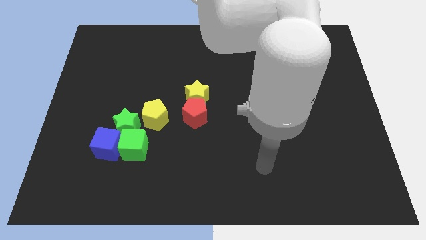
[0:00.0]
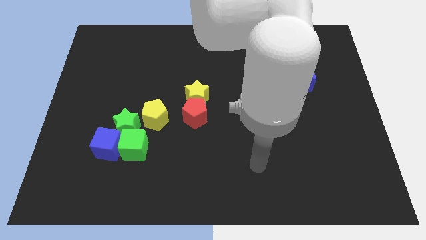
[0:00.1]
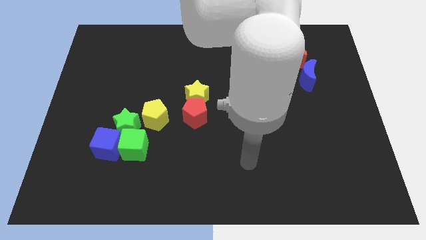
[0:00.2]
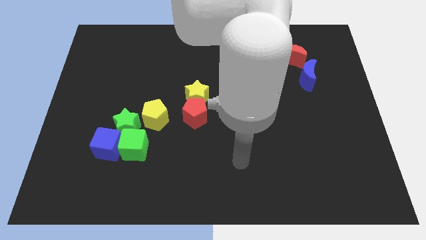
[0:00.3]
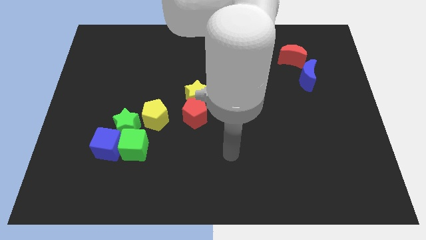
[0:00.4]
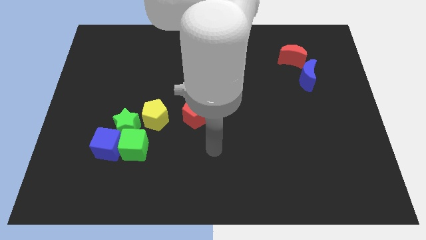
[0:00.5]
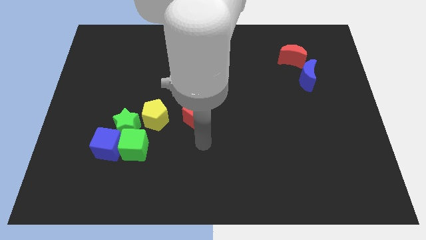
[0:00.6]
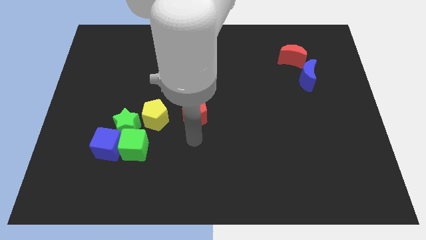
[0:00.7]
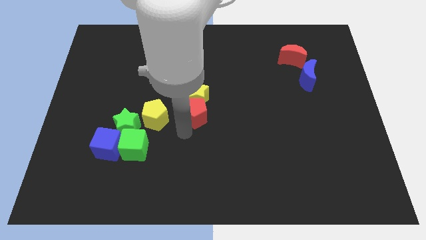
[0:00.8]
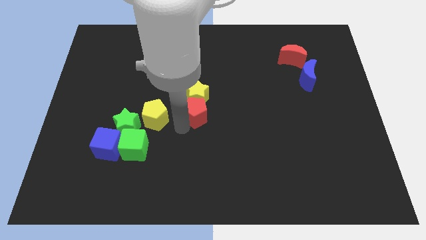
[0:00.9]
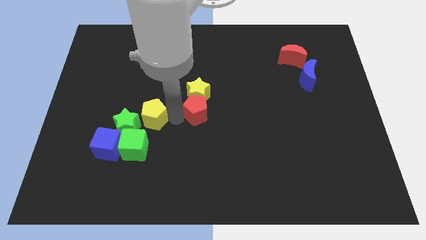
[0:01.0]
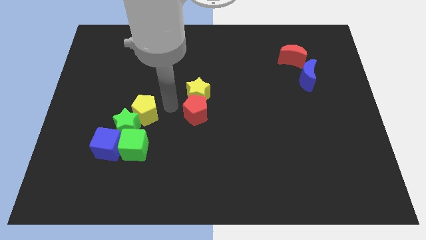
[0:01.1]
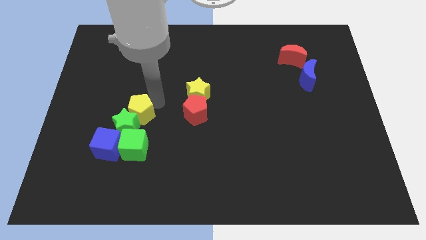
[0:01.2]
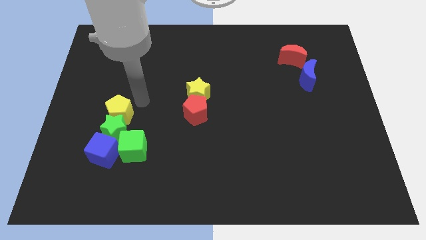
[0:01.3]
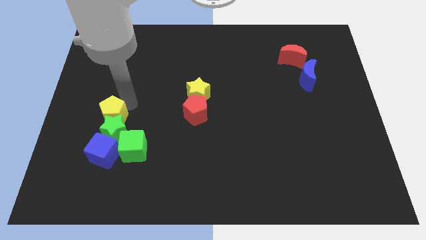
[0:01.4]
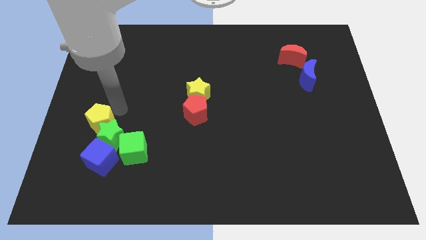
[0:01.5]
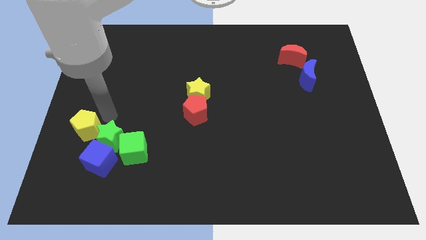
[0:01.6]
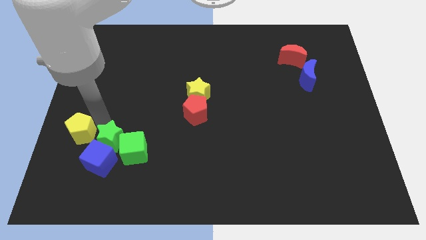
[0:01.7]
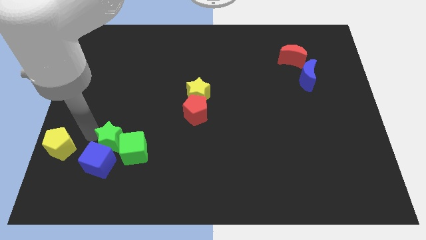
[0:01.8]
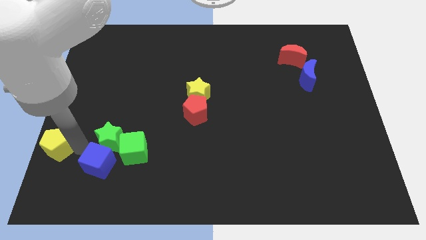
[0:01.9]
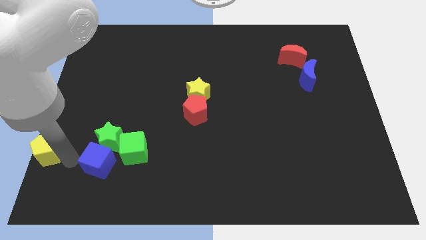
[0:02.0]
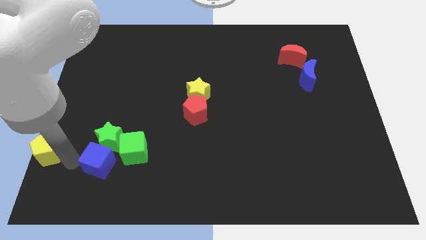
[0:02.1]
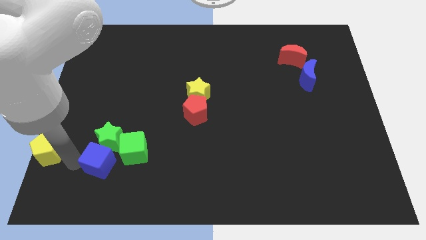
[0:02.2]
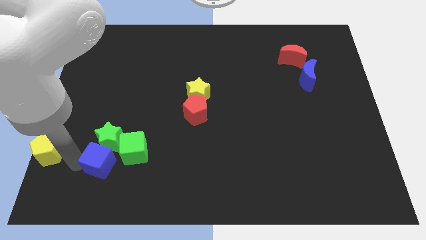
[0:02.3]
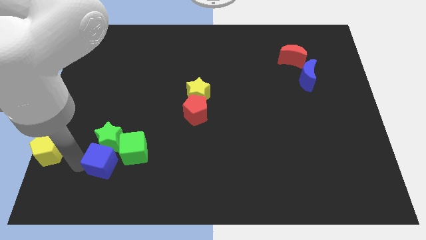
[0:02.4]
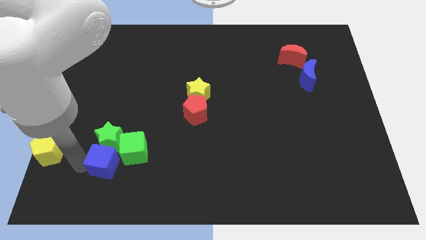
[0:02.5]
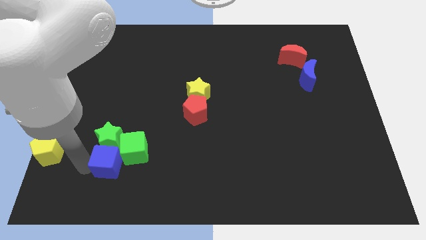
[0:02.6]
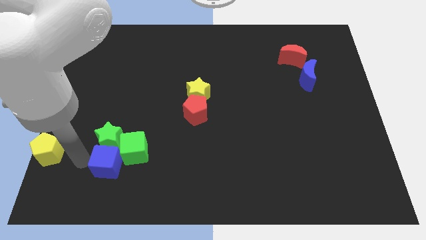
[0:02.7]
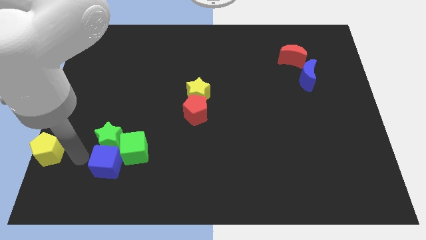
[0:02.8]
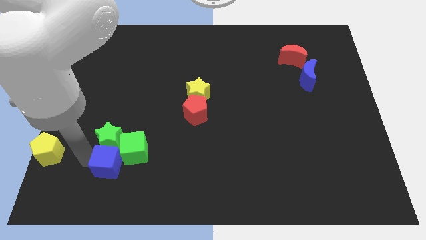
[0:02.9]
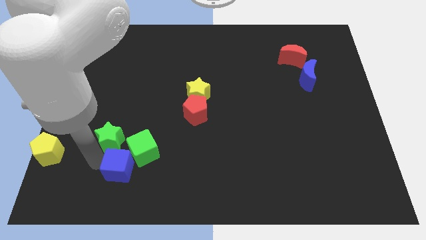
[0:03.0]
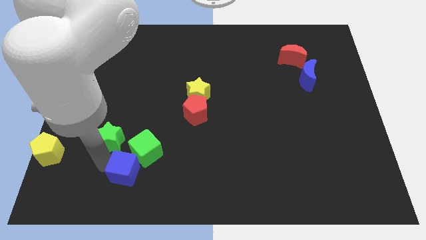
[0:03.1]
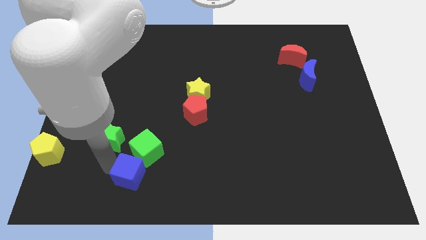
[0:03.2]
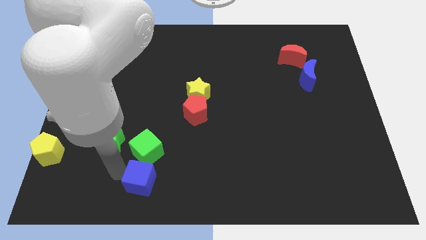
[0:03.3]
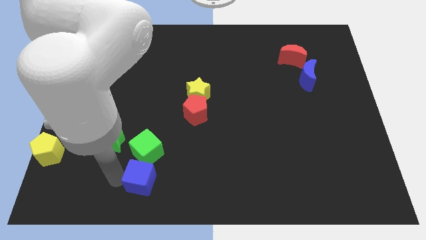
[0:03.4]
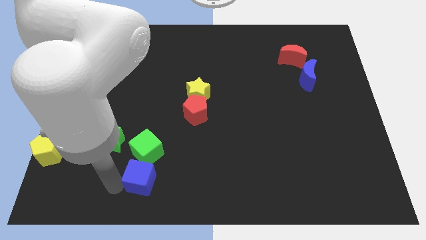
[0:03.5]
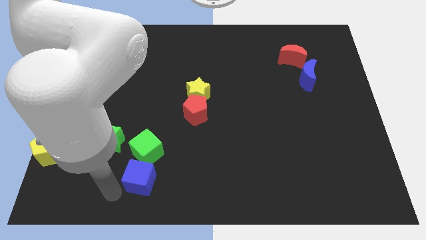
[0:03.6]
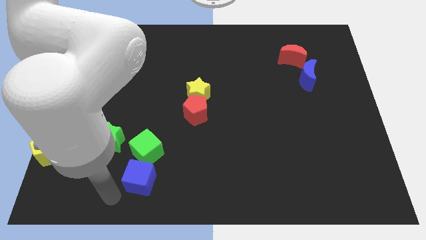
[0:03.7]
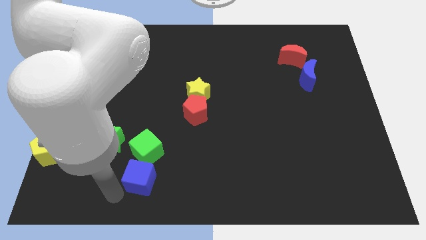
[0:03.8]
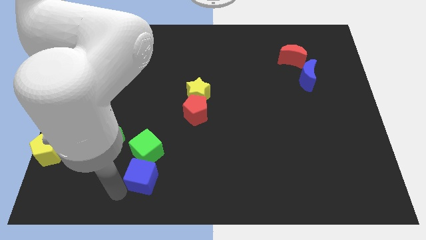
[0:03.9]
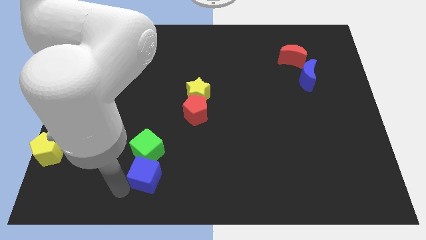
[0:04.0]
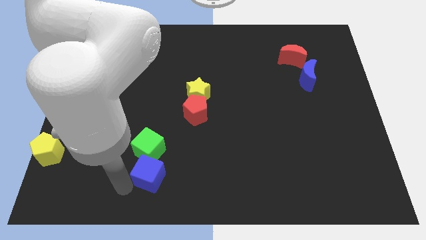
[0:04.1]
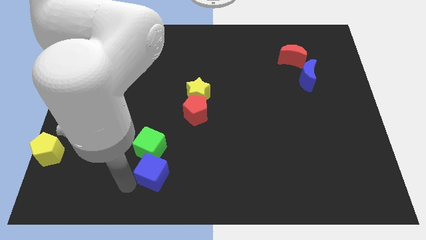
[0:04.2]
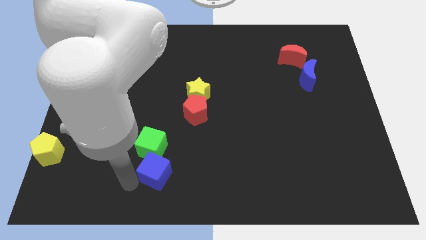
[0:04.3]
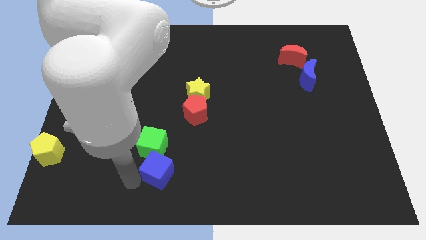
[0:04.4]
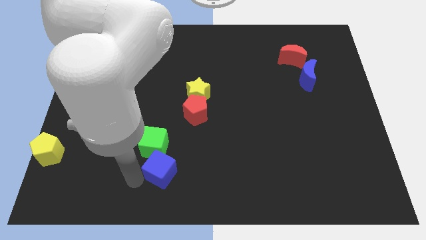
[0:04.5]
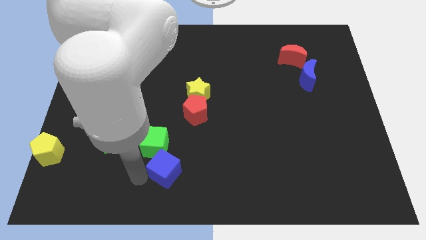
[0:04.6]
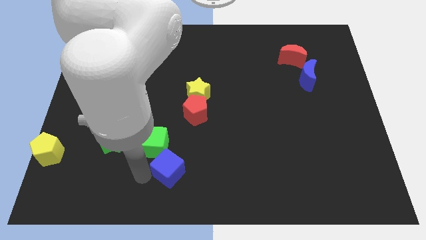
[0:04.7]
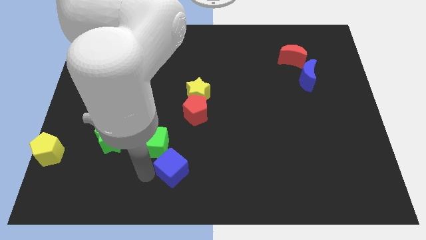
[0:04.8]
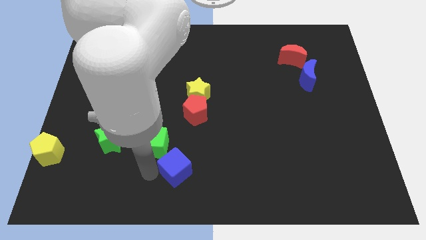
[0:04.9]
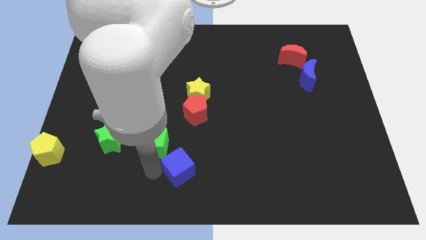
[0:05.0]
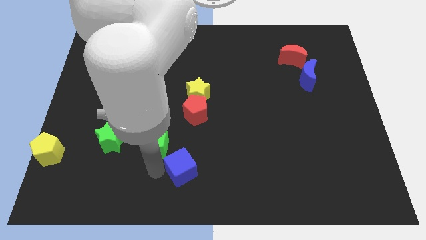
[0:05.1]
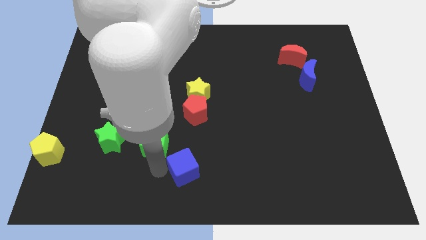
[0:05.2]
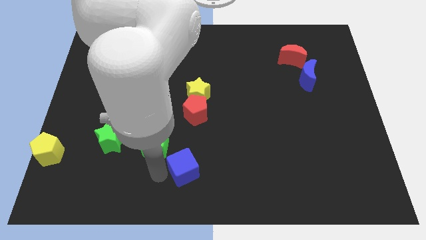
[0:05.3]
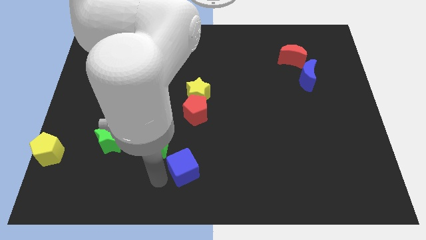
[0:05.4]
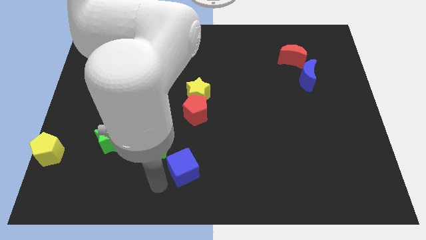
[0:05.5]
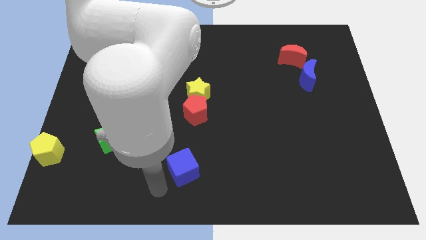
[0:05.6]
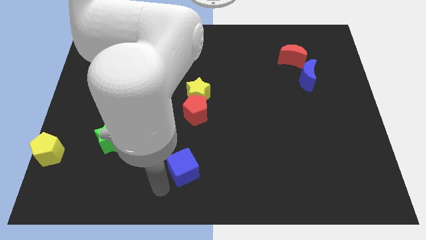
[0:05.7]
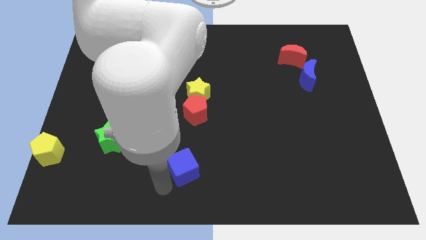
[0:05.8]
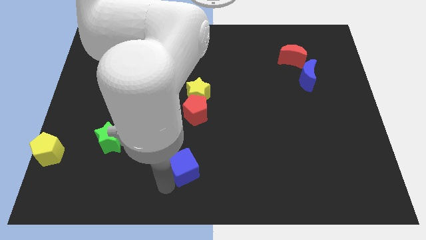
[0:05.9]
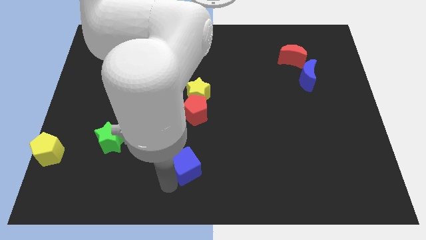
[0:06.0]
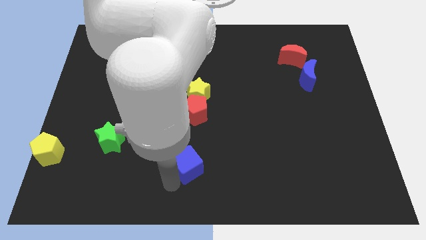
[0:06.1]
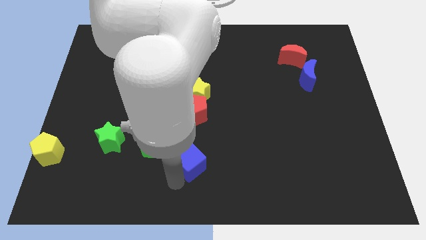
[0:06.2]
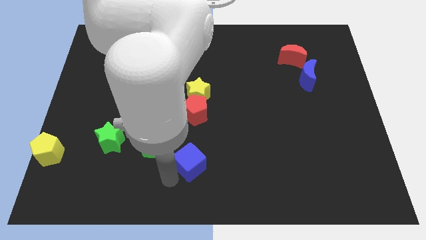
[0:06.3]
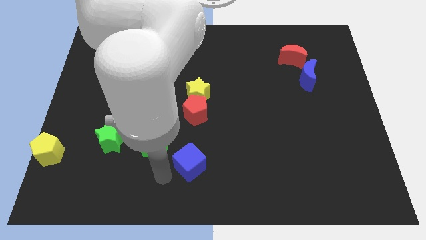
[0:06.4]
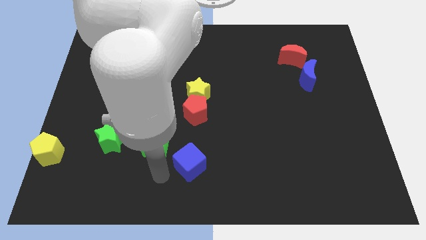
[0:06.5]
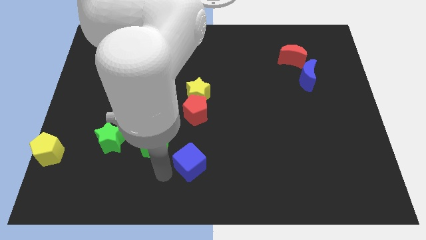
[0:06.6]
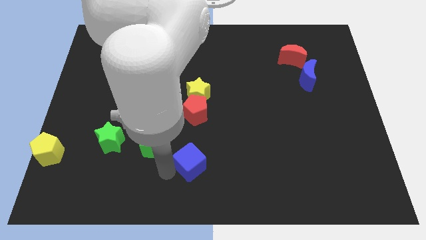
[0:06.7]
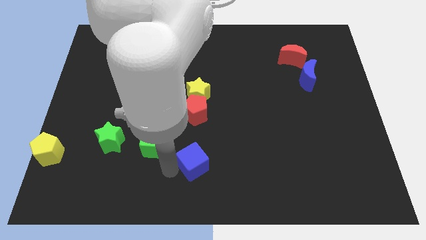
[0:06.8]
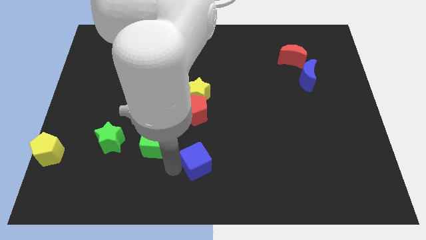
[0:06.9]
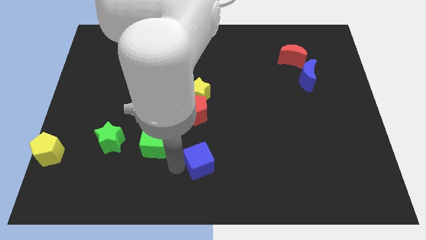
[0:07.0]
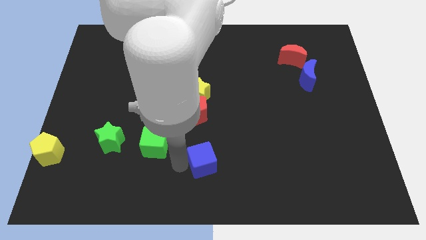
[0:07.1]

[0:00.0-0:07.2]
slide the blue cube right

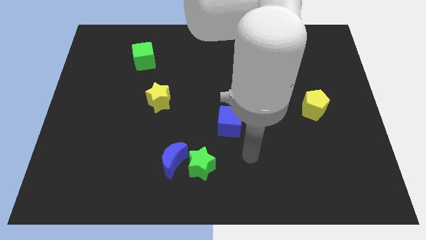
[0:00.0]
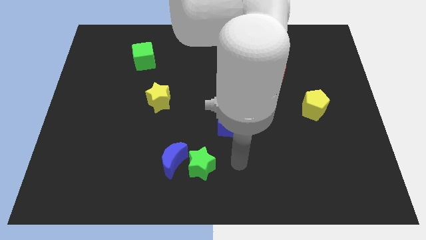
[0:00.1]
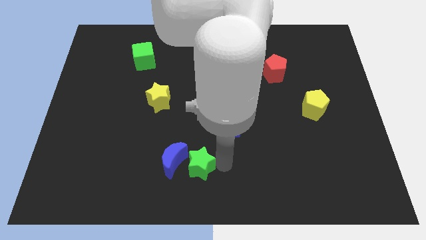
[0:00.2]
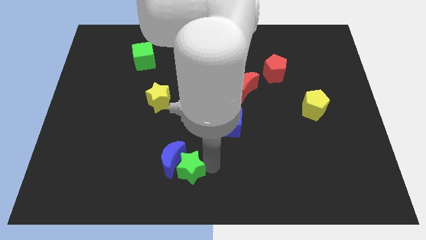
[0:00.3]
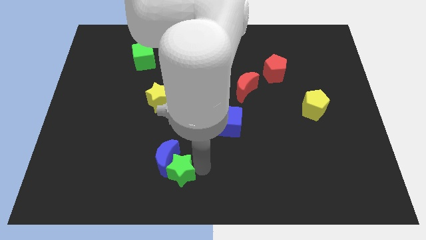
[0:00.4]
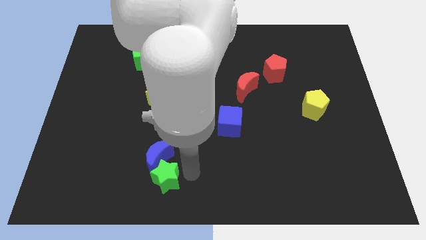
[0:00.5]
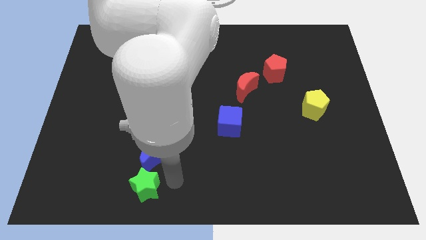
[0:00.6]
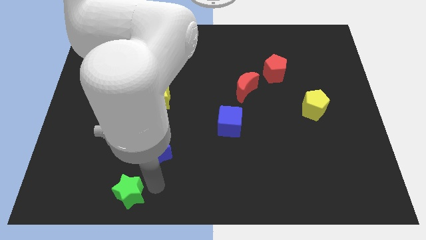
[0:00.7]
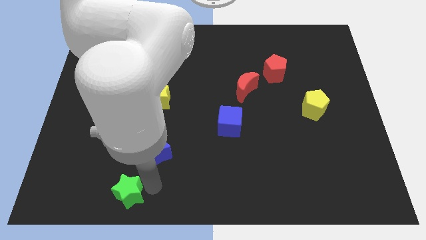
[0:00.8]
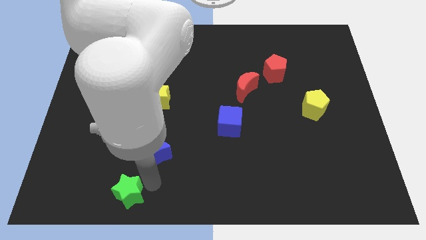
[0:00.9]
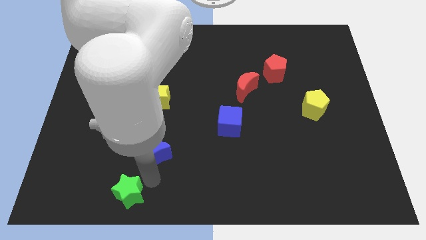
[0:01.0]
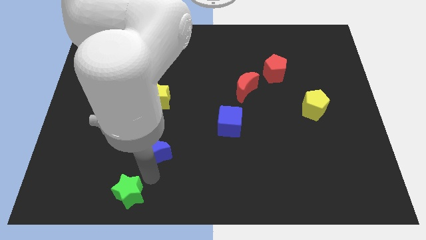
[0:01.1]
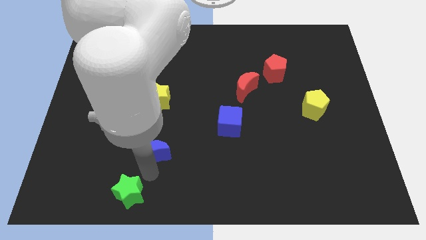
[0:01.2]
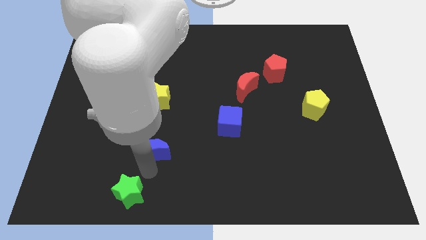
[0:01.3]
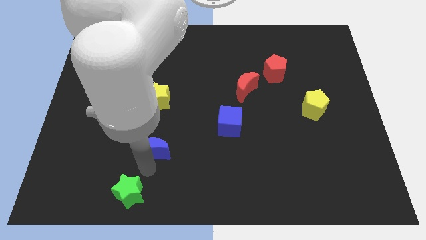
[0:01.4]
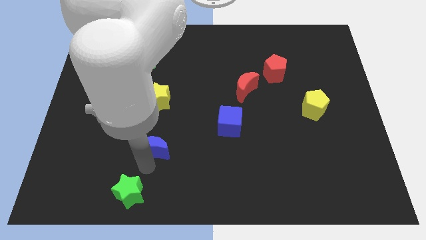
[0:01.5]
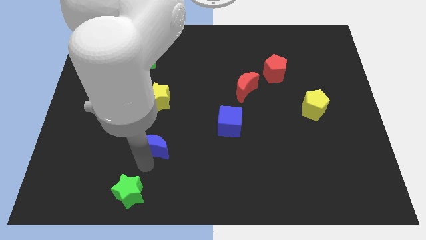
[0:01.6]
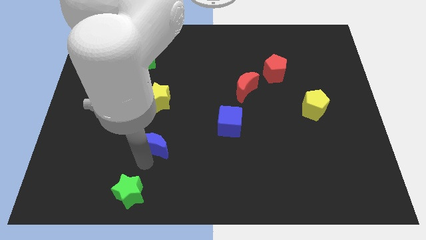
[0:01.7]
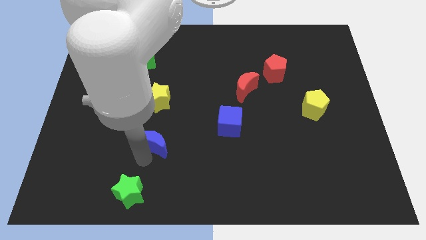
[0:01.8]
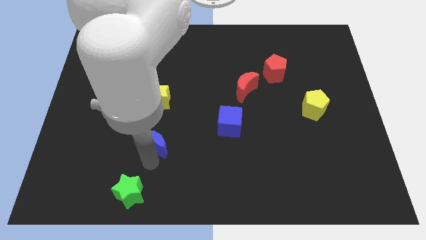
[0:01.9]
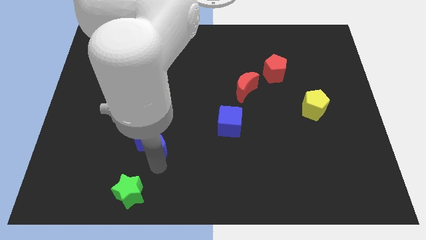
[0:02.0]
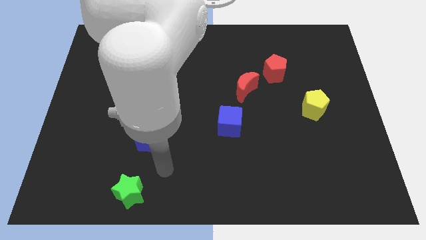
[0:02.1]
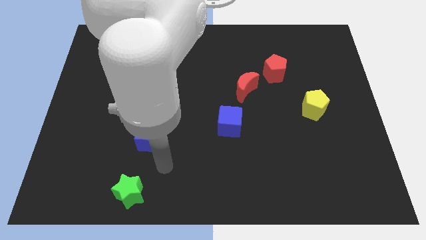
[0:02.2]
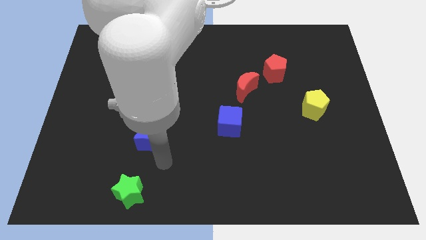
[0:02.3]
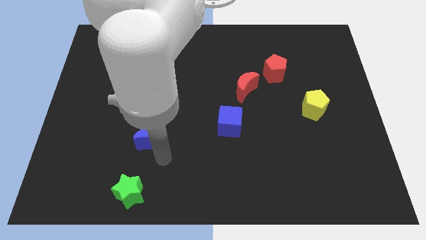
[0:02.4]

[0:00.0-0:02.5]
push the blue moon up and left diagonally slightly
